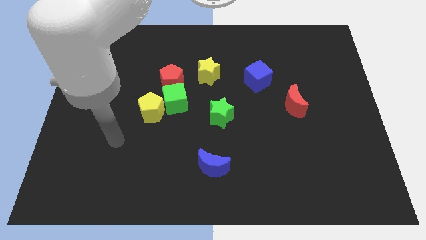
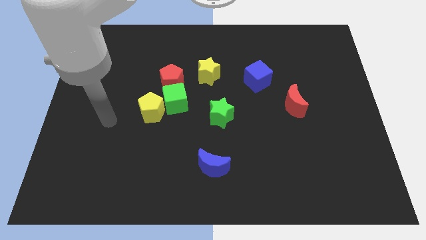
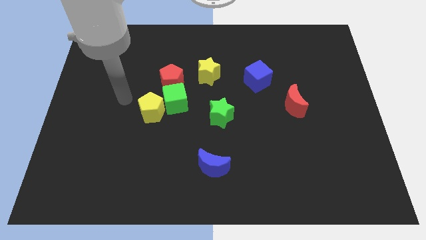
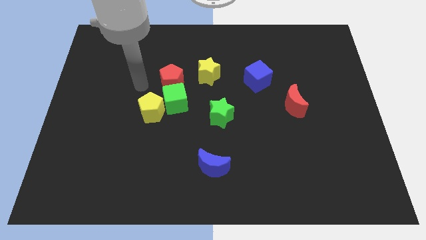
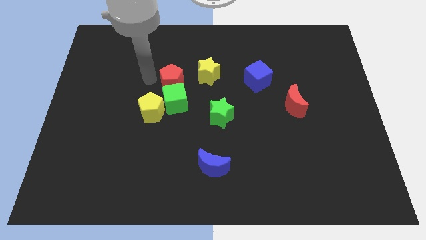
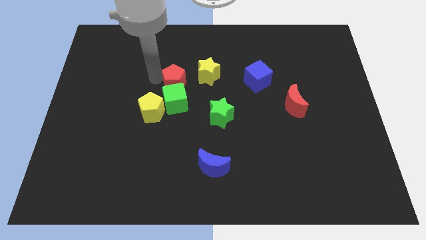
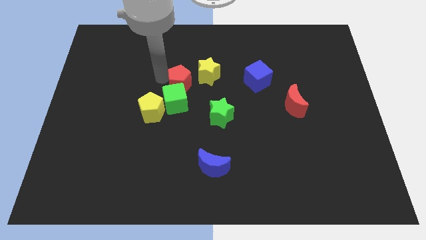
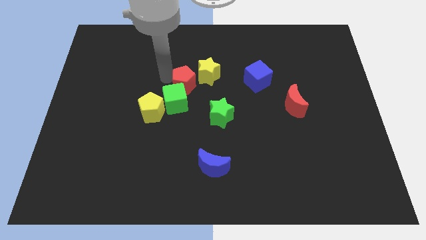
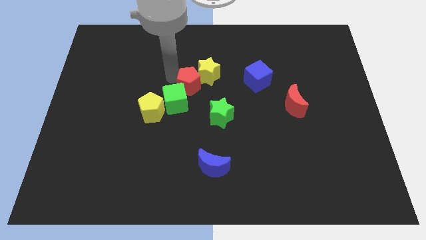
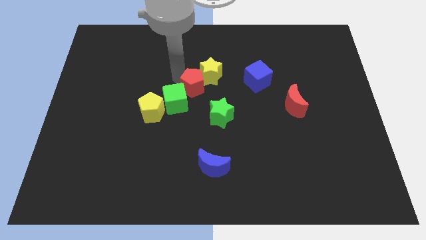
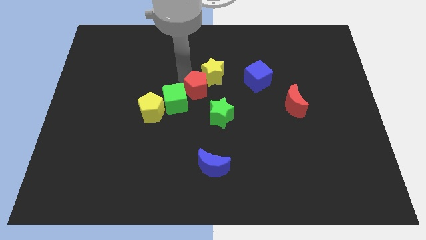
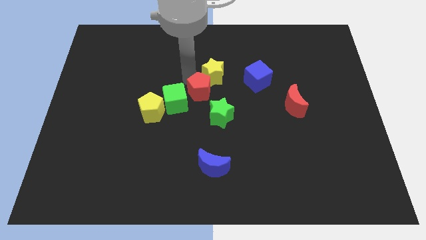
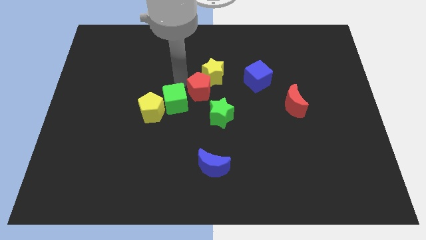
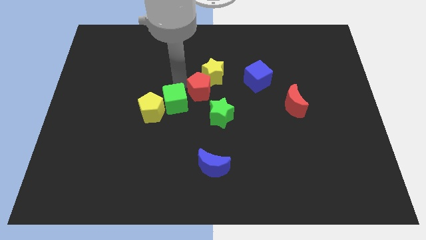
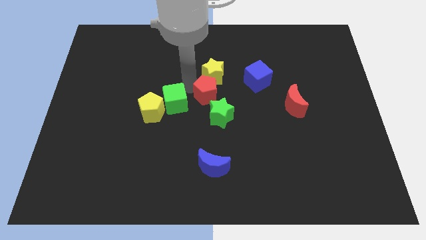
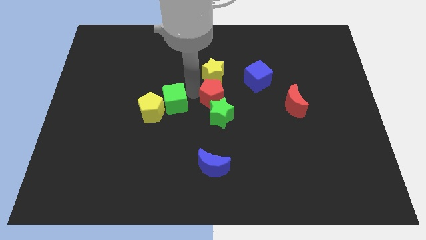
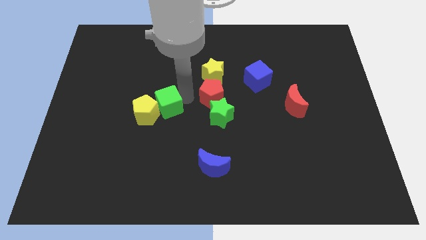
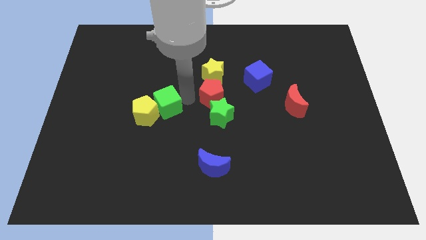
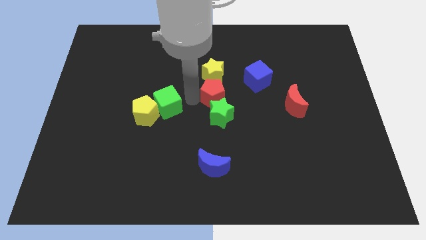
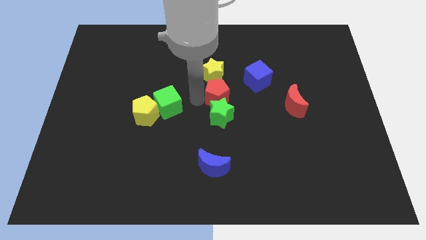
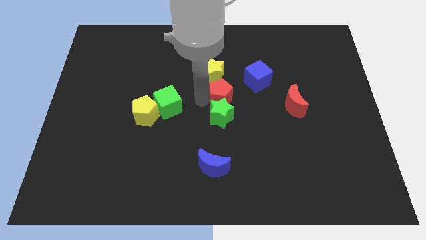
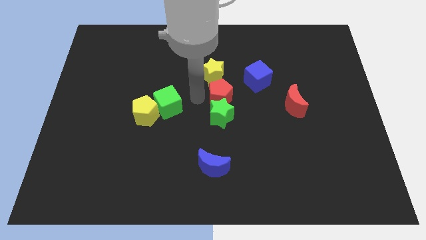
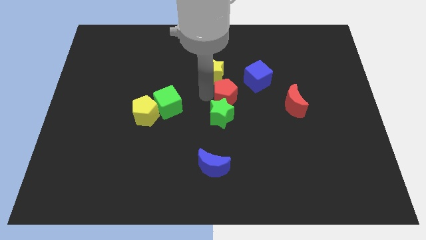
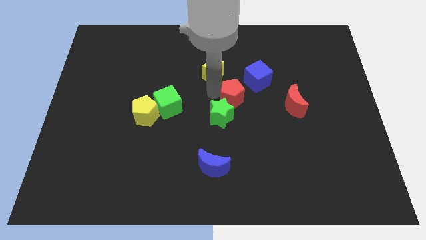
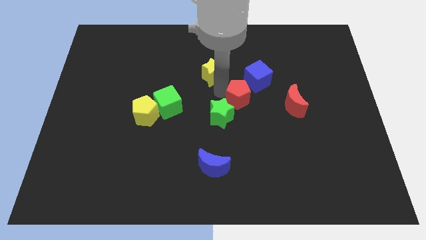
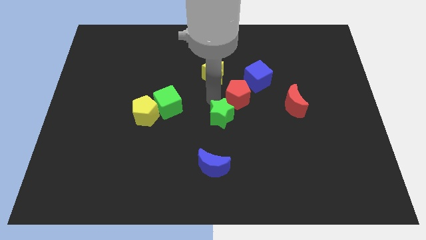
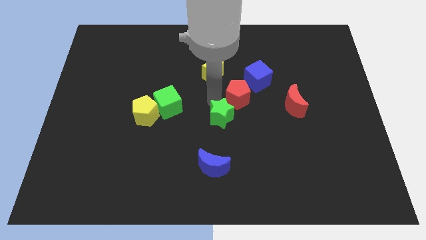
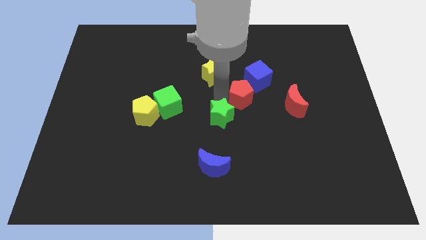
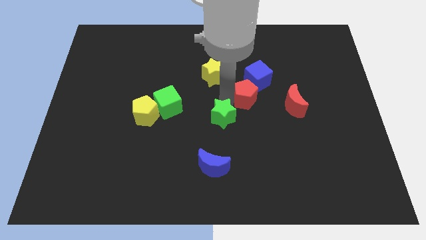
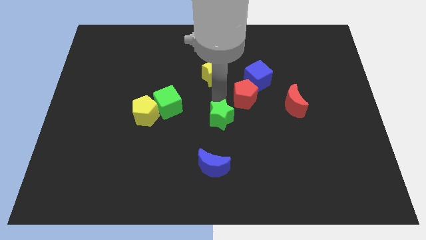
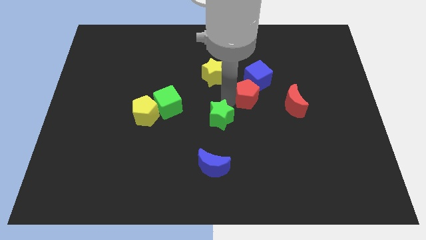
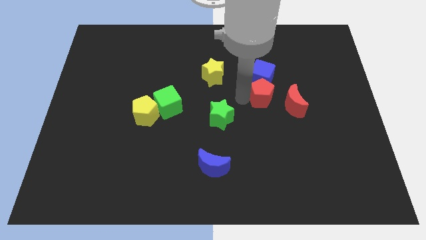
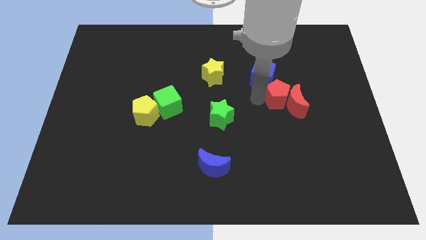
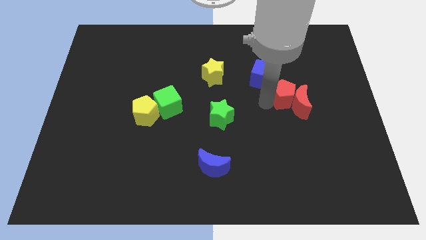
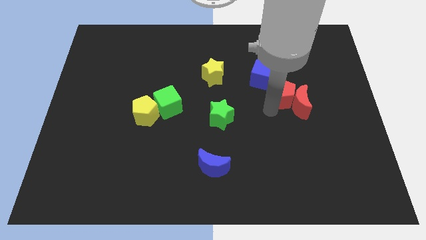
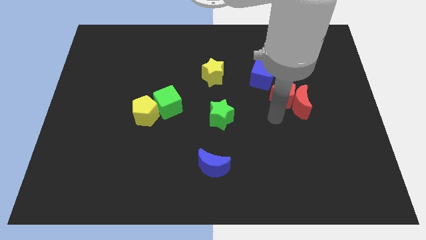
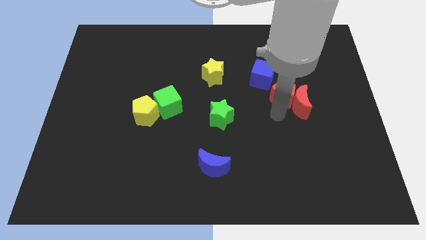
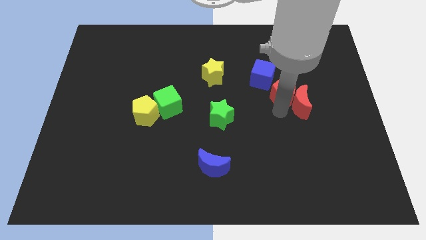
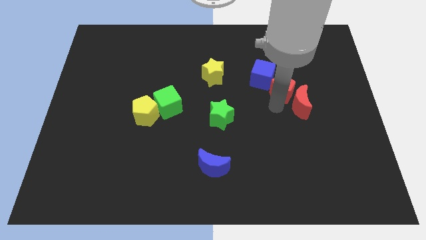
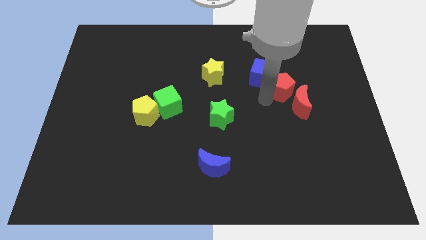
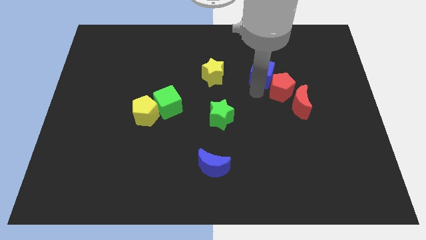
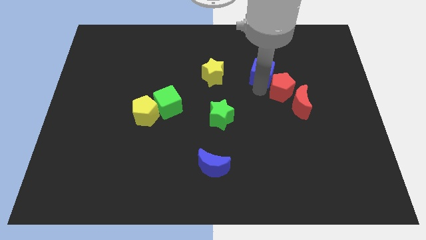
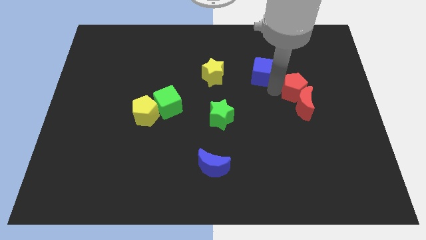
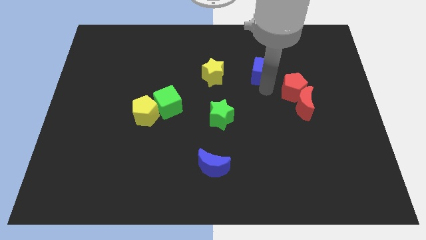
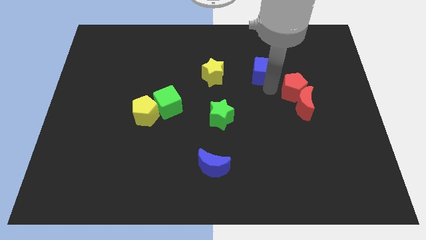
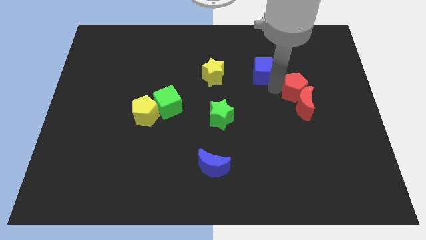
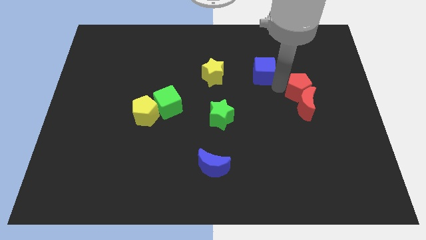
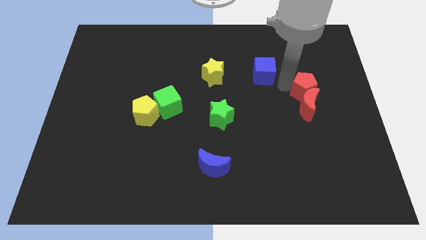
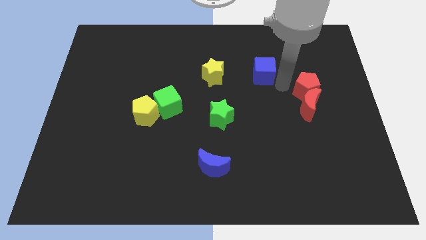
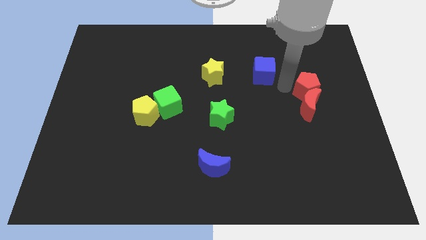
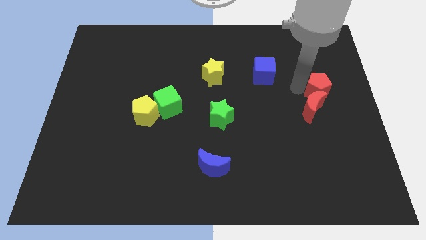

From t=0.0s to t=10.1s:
slide the red pentagon to the center right

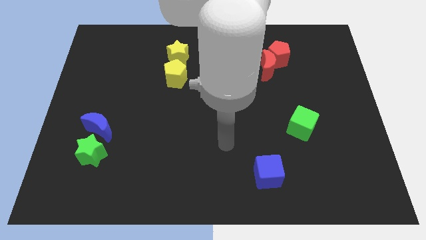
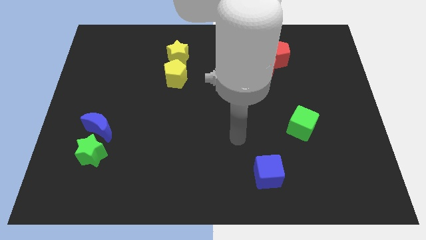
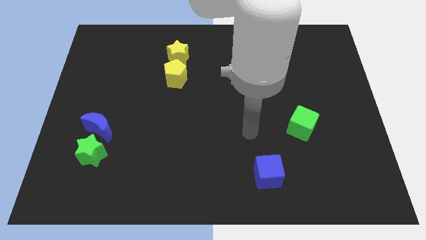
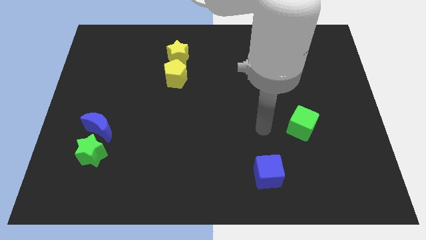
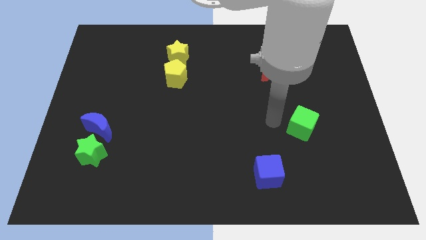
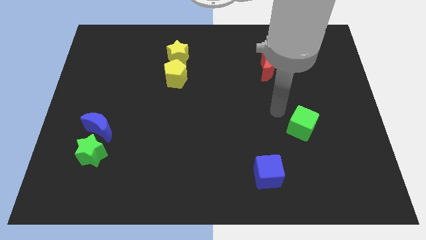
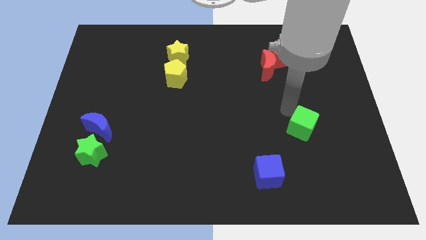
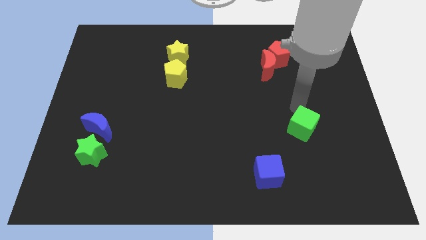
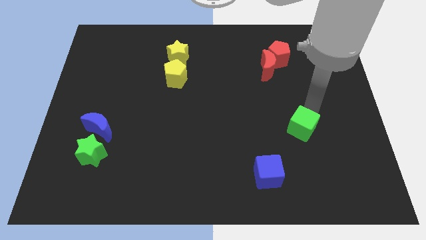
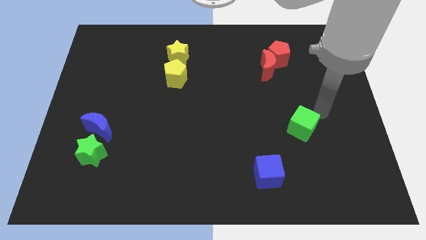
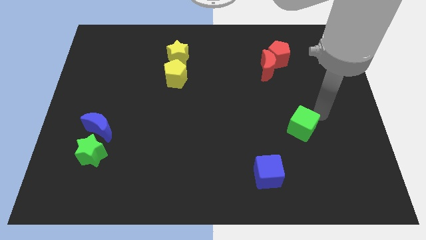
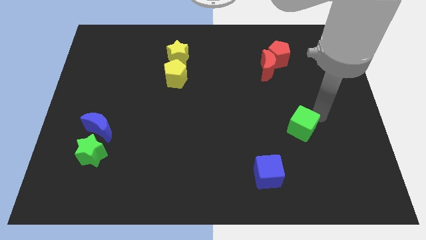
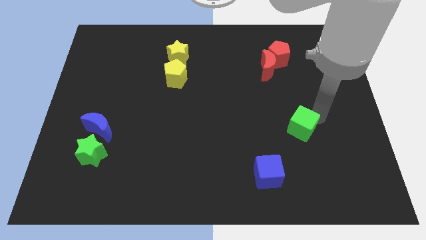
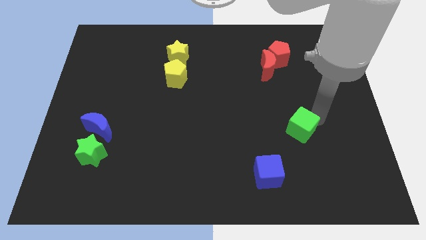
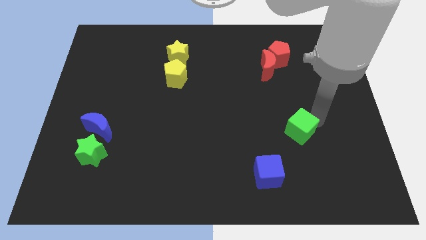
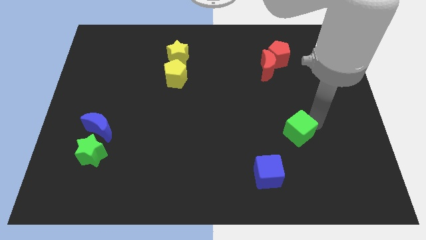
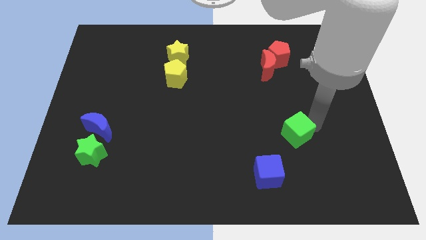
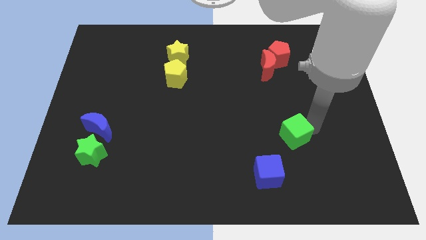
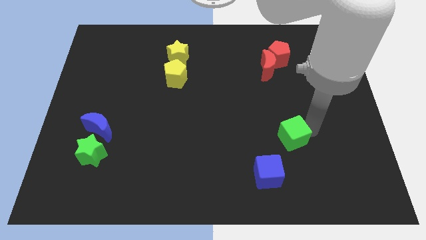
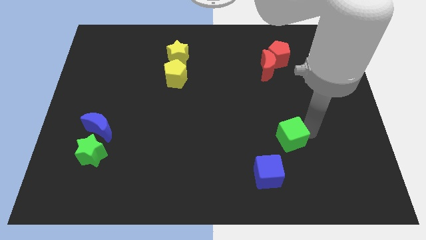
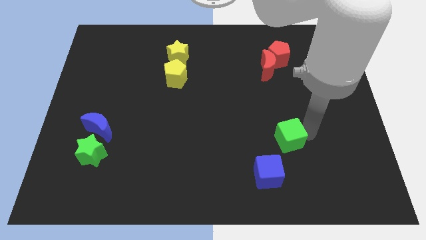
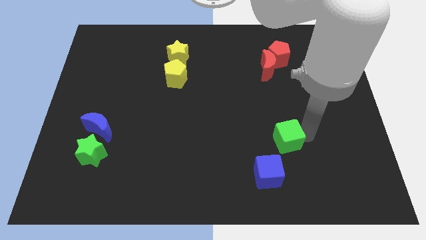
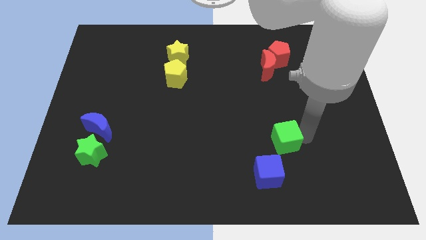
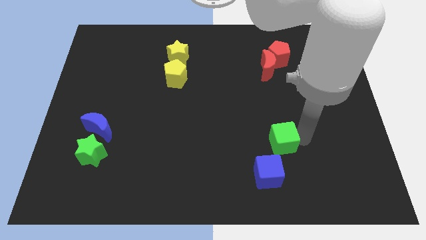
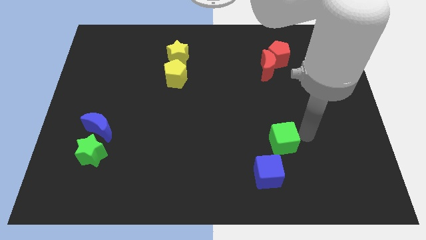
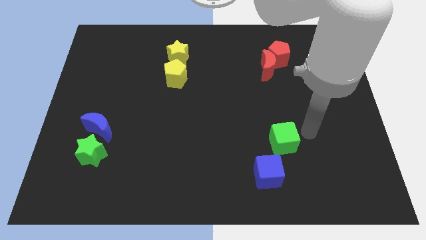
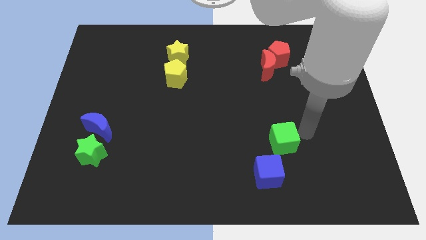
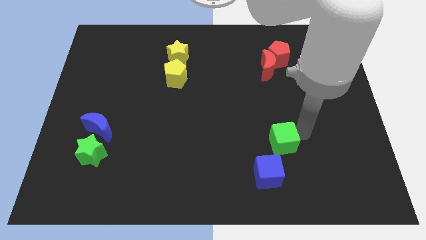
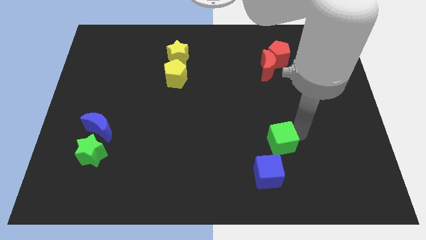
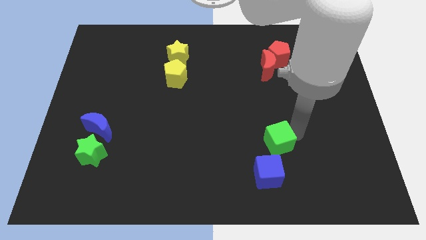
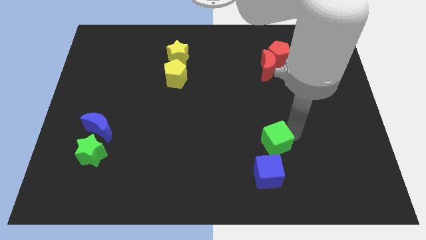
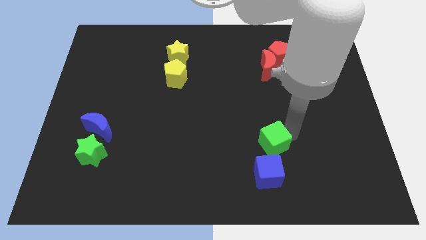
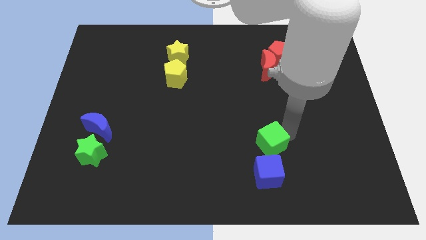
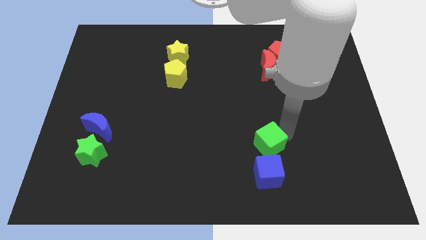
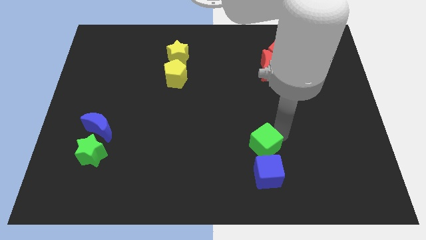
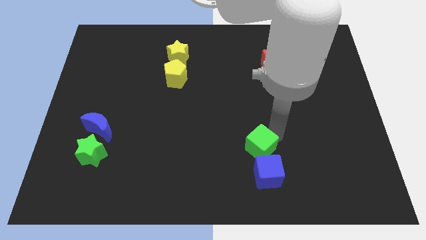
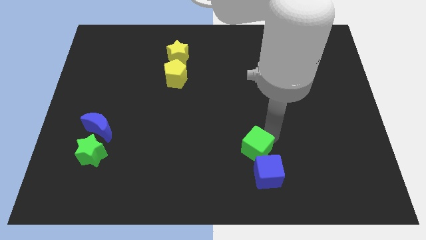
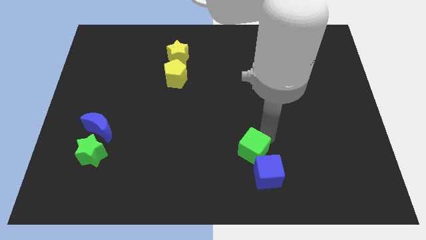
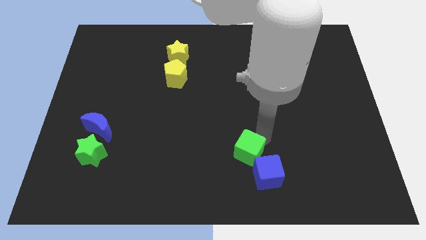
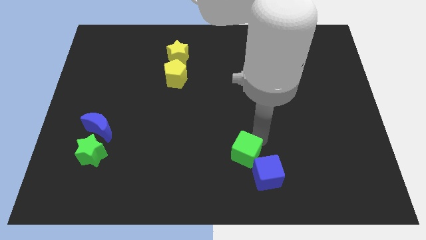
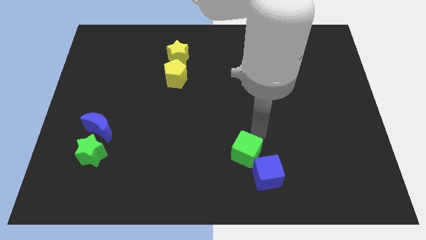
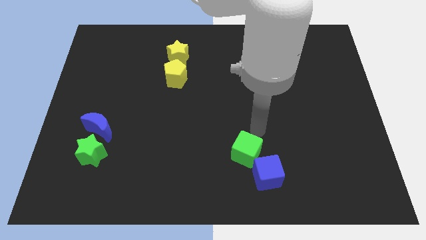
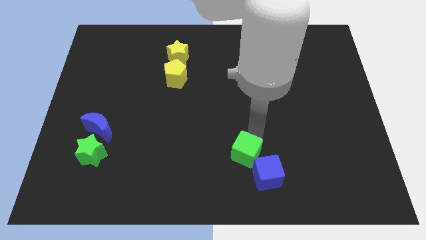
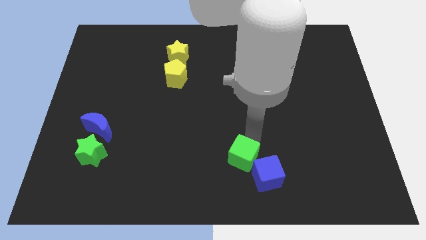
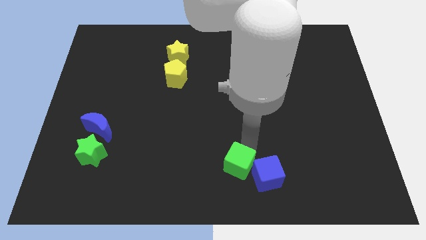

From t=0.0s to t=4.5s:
slide the green cube to the bottom side
